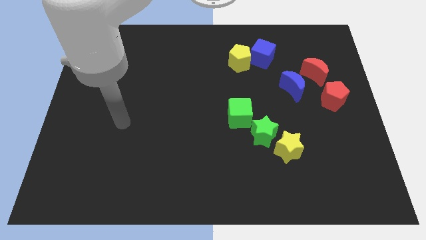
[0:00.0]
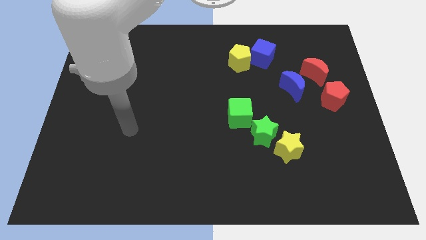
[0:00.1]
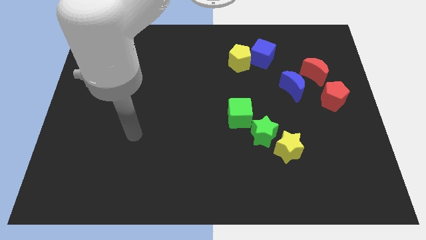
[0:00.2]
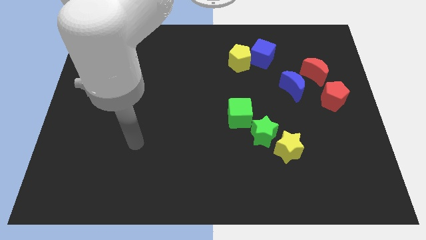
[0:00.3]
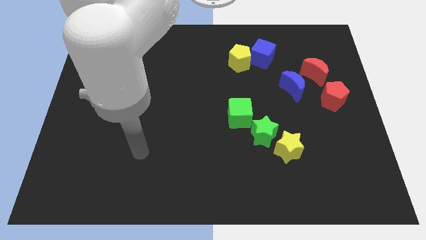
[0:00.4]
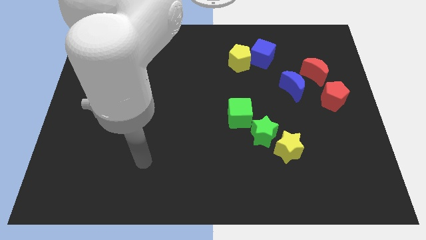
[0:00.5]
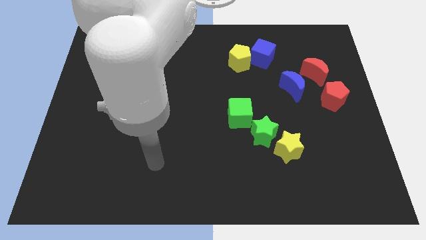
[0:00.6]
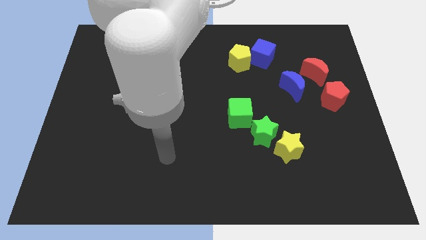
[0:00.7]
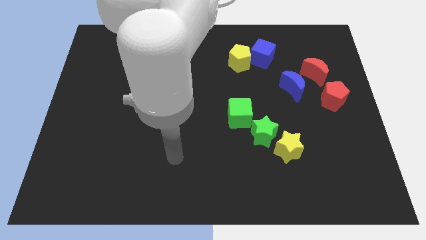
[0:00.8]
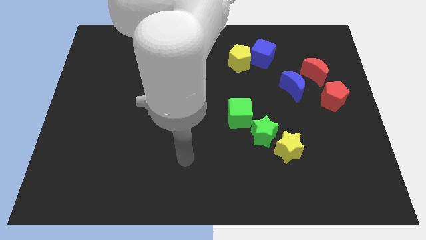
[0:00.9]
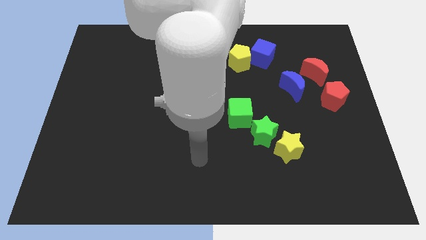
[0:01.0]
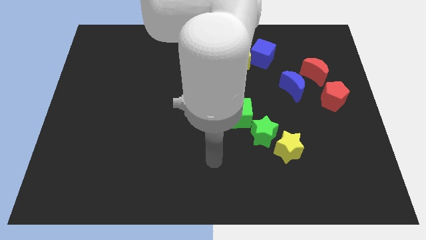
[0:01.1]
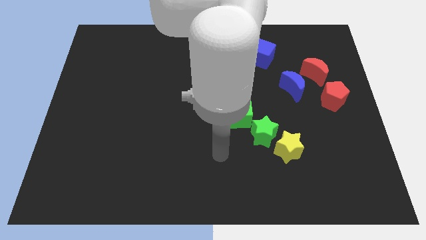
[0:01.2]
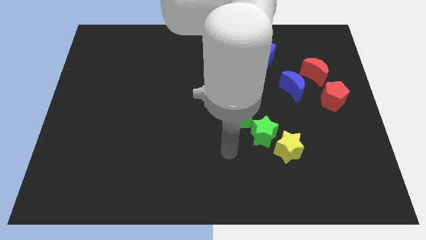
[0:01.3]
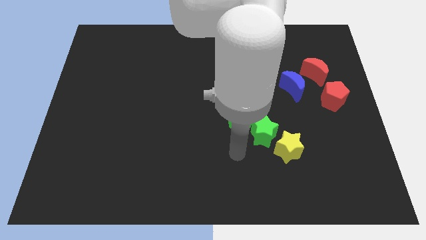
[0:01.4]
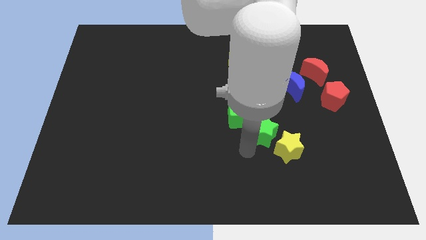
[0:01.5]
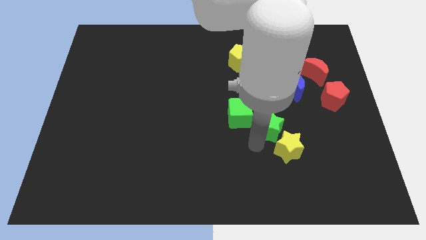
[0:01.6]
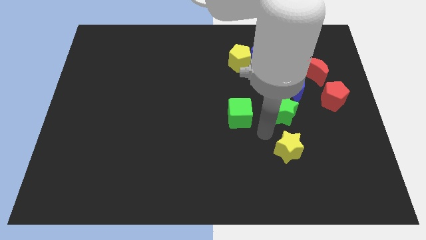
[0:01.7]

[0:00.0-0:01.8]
move the yellow star away from the green star

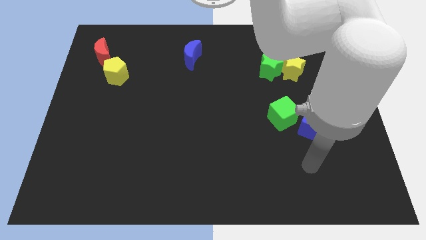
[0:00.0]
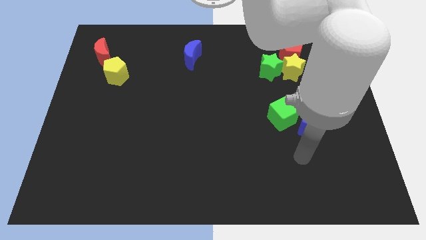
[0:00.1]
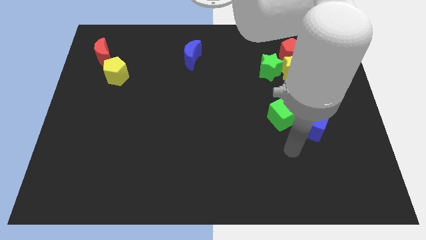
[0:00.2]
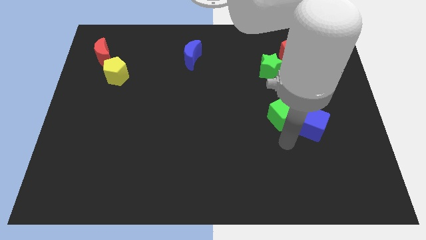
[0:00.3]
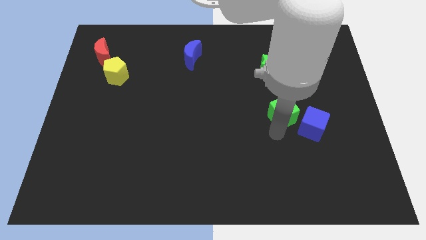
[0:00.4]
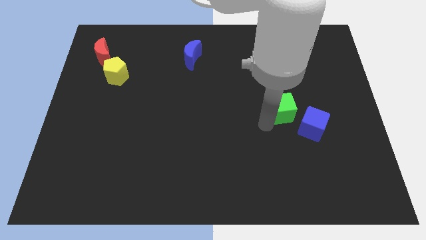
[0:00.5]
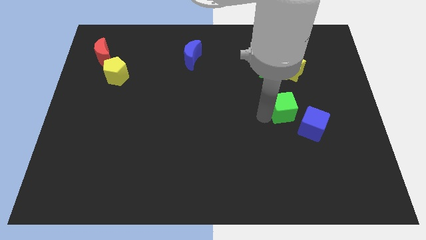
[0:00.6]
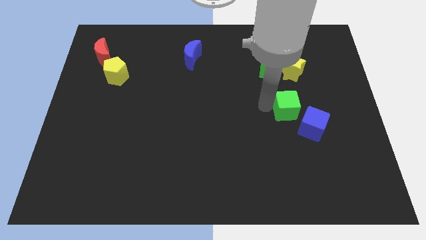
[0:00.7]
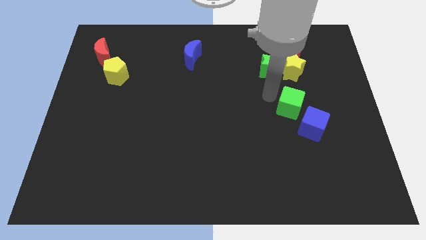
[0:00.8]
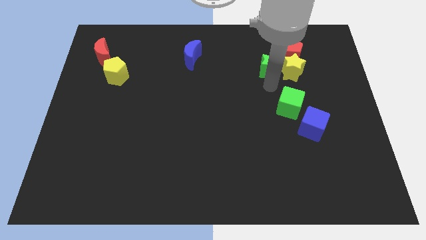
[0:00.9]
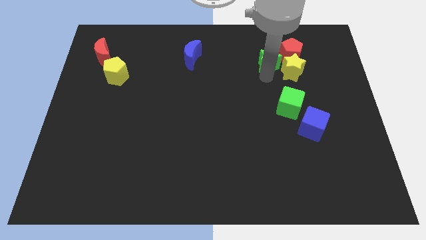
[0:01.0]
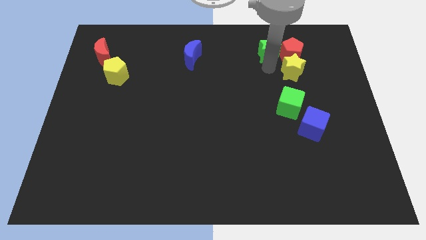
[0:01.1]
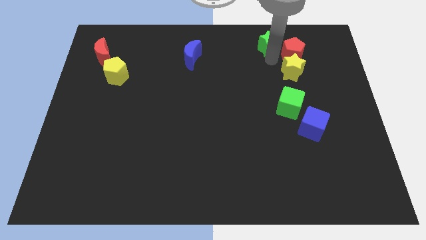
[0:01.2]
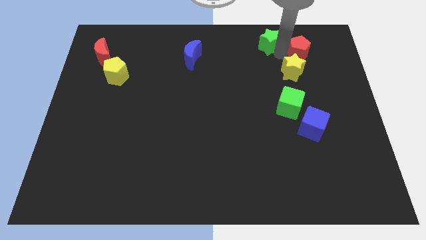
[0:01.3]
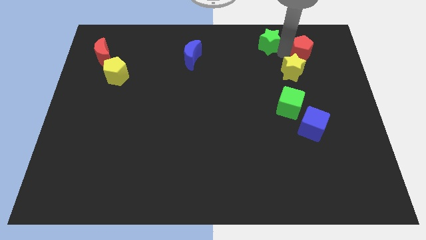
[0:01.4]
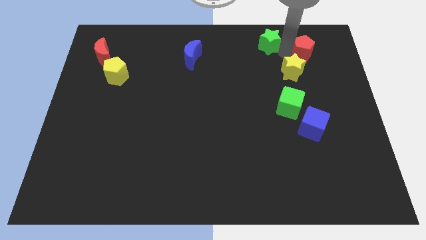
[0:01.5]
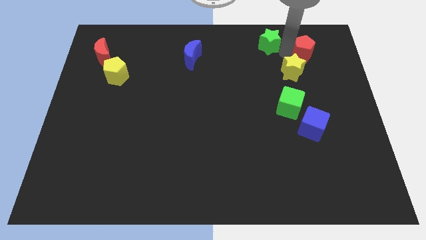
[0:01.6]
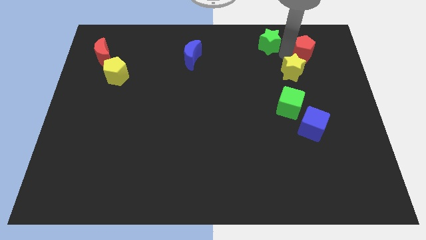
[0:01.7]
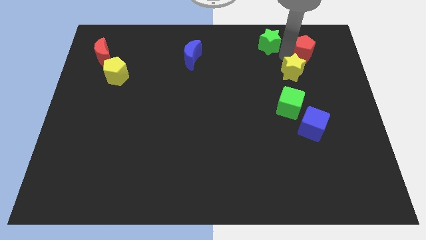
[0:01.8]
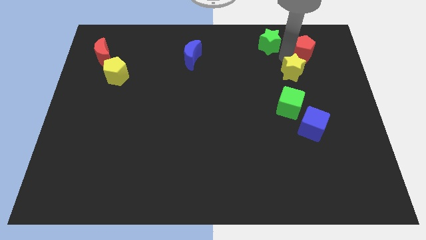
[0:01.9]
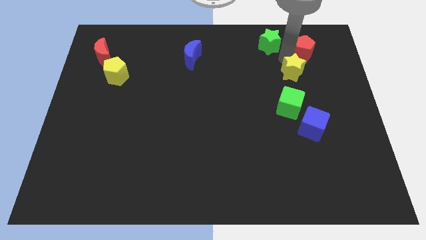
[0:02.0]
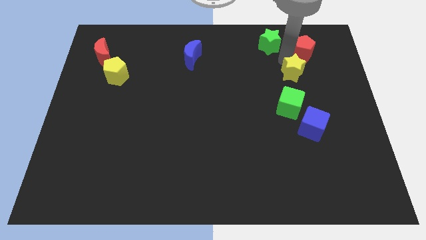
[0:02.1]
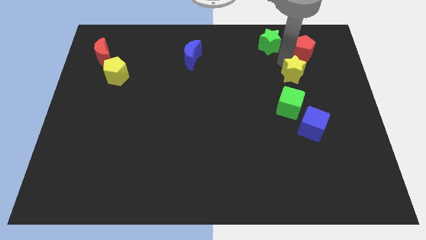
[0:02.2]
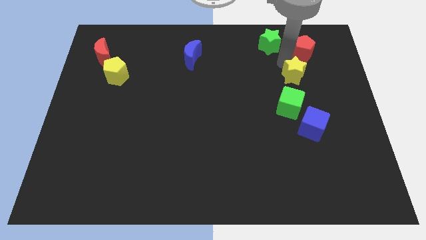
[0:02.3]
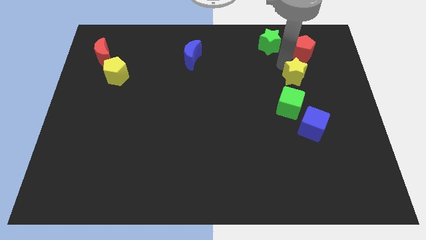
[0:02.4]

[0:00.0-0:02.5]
pull the yellow star apart from the green star and red pentagon

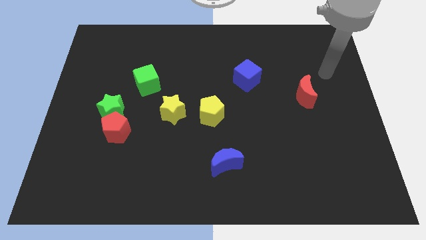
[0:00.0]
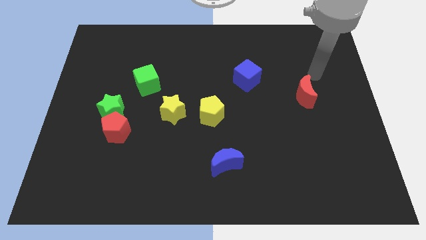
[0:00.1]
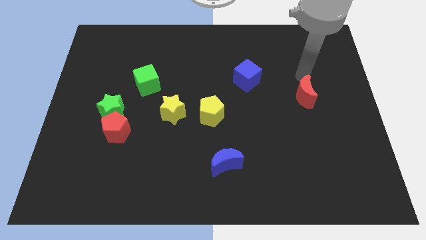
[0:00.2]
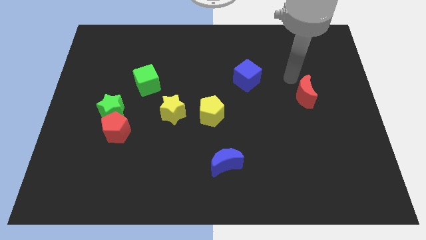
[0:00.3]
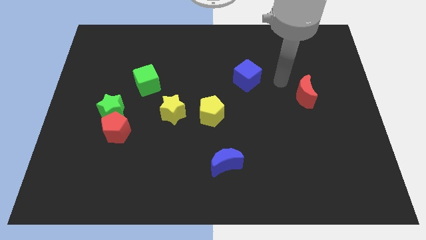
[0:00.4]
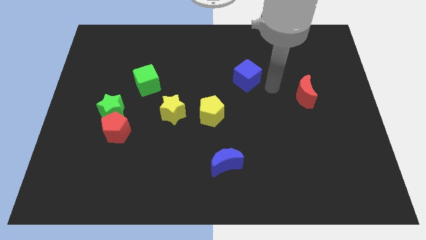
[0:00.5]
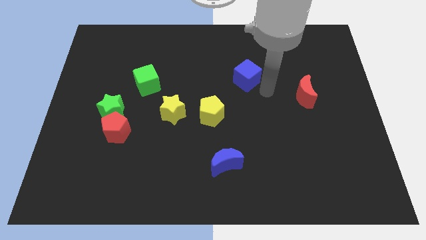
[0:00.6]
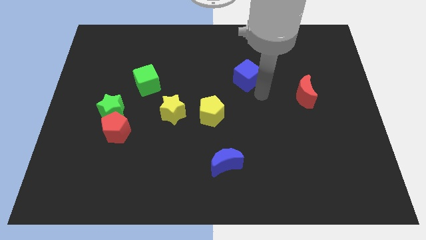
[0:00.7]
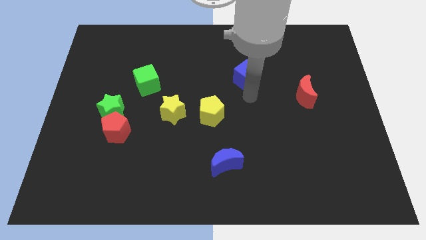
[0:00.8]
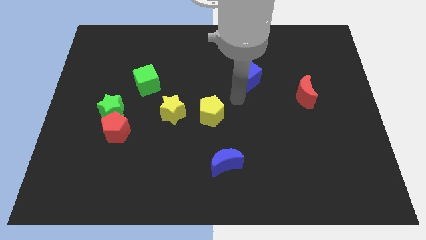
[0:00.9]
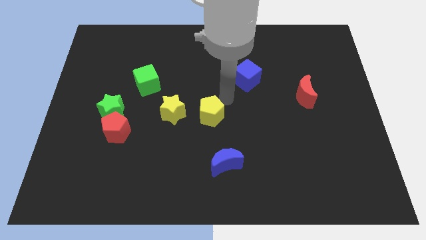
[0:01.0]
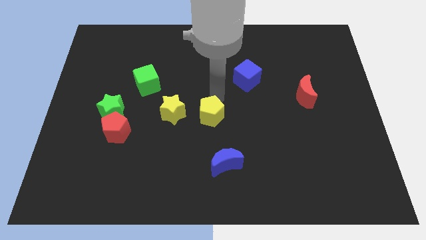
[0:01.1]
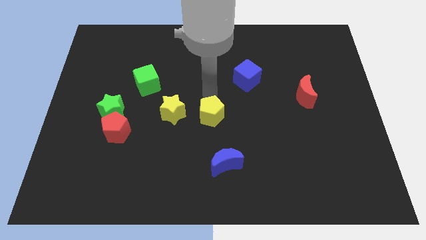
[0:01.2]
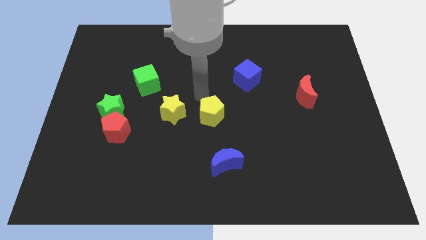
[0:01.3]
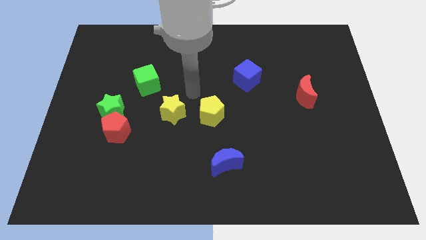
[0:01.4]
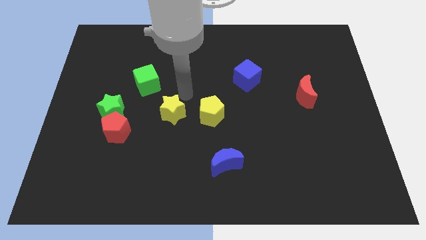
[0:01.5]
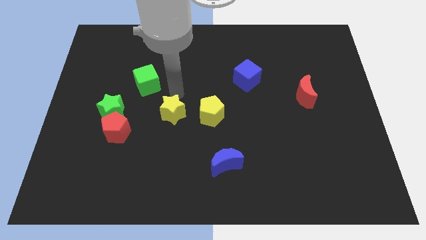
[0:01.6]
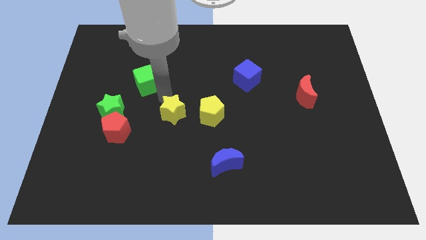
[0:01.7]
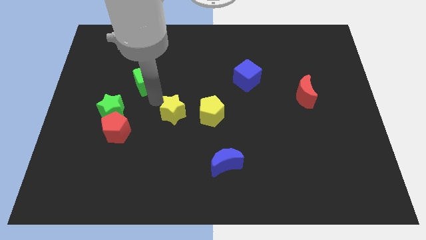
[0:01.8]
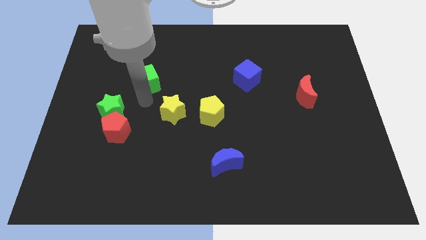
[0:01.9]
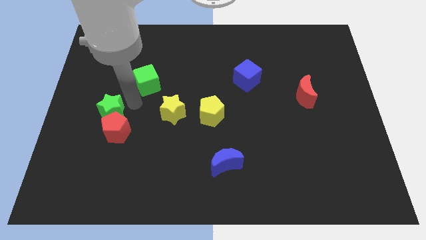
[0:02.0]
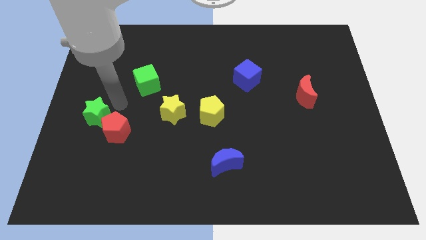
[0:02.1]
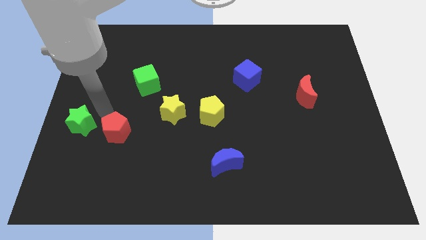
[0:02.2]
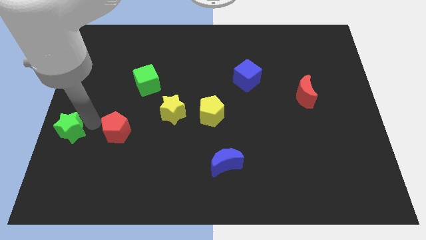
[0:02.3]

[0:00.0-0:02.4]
separate the red pentagon from the green star

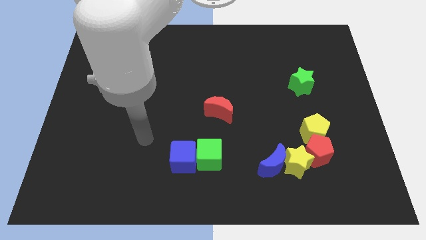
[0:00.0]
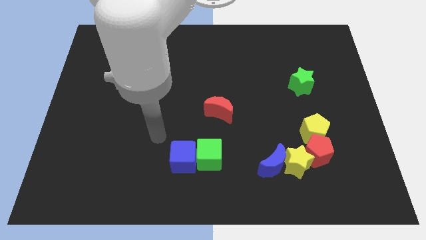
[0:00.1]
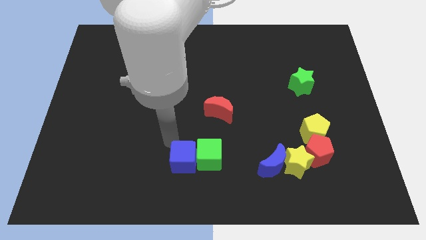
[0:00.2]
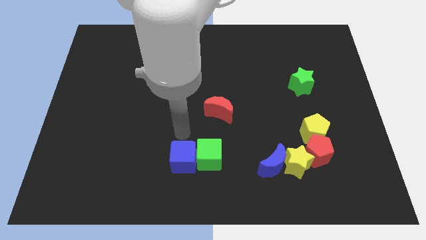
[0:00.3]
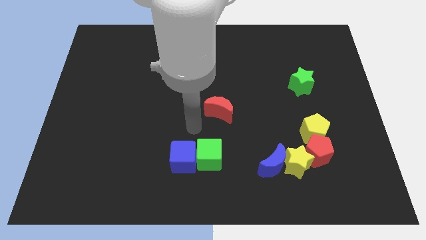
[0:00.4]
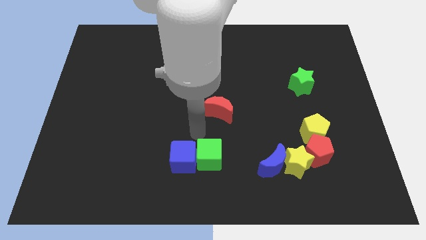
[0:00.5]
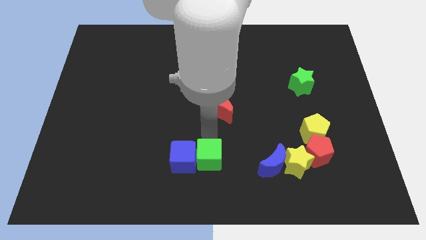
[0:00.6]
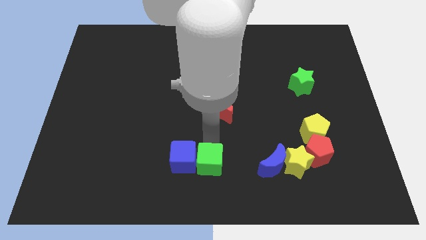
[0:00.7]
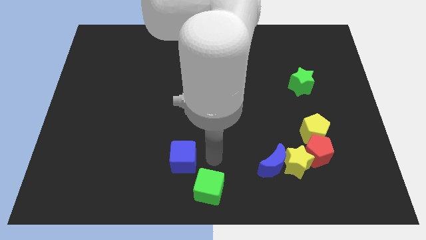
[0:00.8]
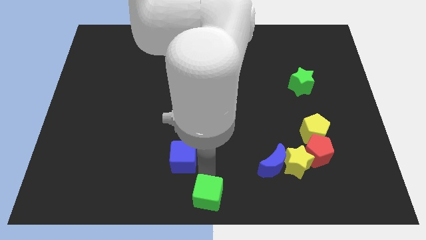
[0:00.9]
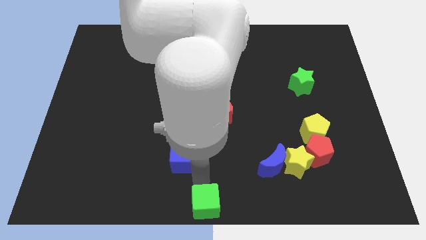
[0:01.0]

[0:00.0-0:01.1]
pull the blue cube apart from the green cube

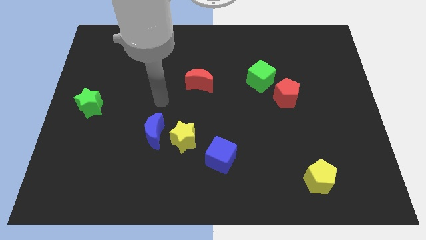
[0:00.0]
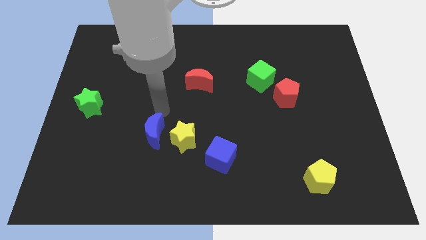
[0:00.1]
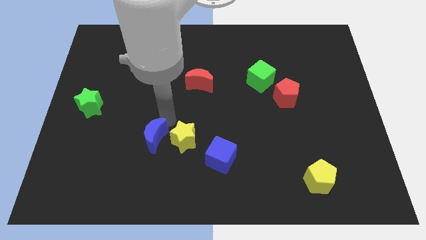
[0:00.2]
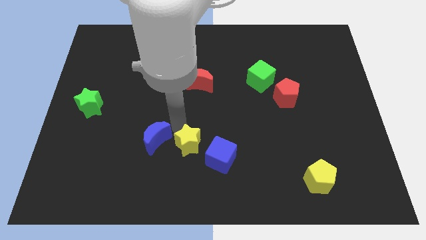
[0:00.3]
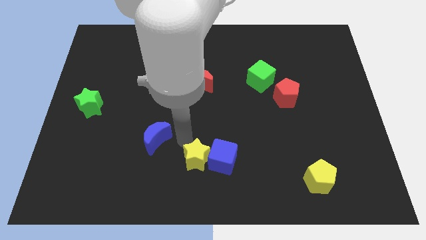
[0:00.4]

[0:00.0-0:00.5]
move the blue moon away from the yellow star

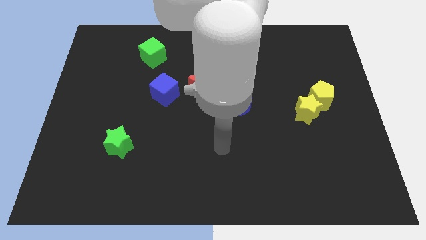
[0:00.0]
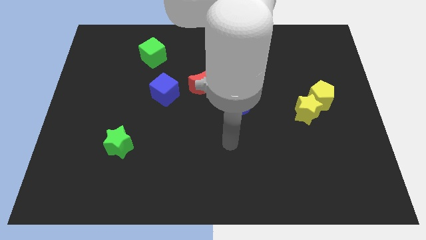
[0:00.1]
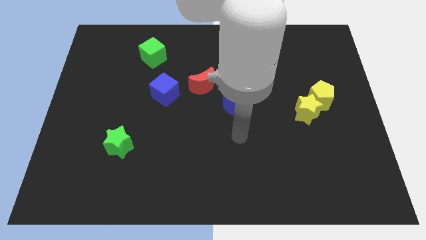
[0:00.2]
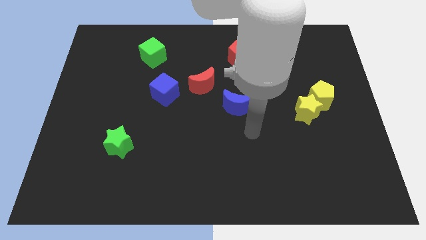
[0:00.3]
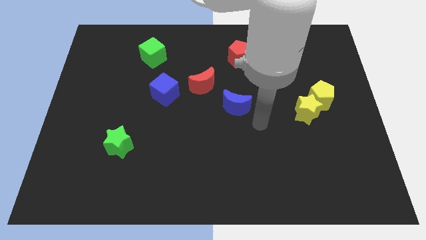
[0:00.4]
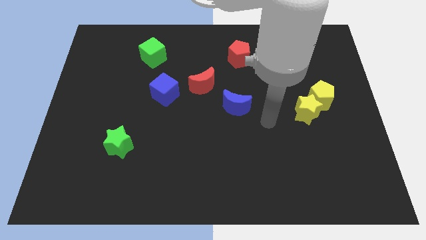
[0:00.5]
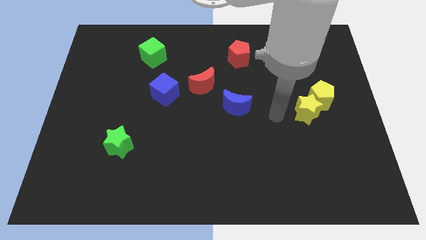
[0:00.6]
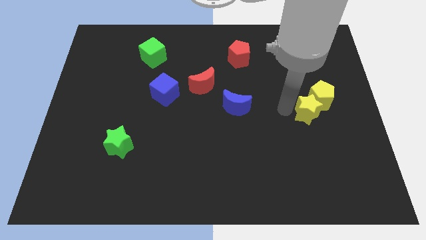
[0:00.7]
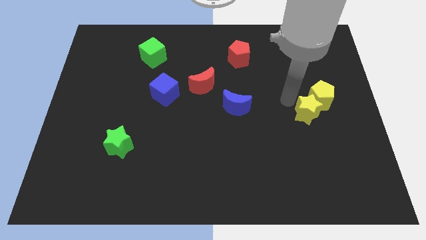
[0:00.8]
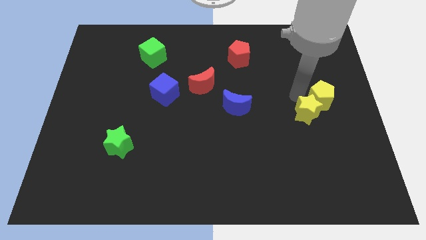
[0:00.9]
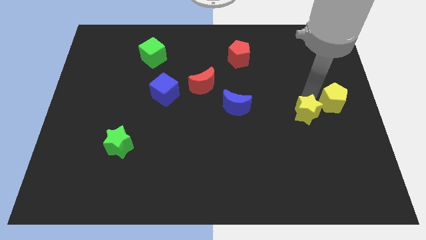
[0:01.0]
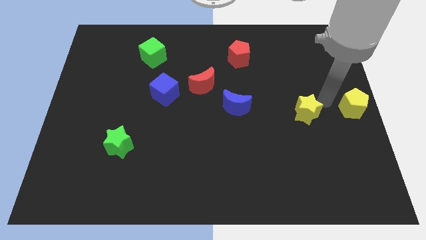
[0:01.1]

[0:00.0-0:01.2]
pull the yellow star apart from the yellow pentagon
